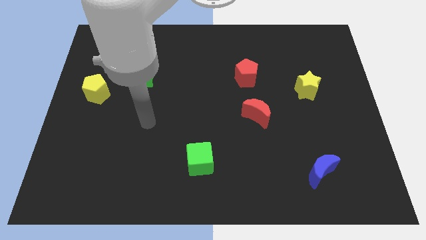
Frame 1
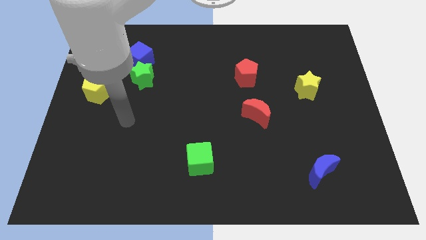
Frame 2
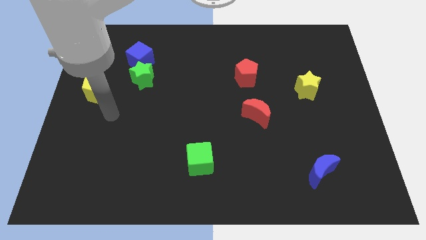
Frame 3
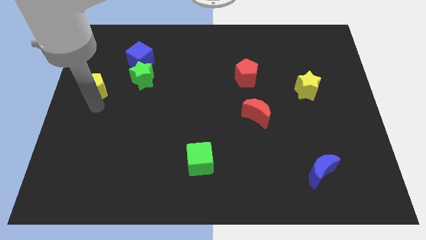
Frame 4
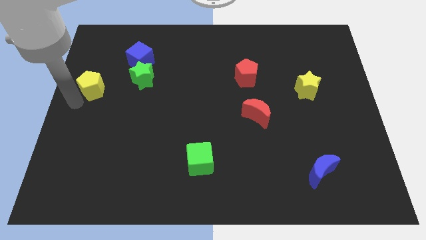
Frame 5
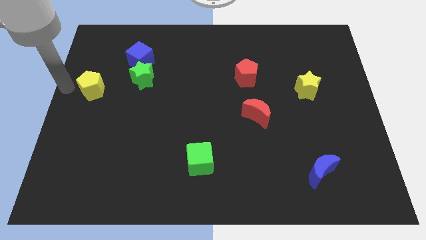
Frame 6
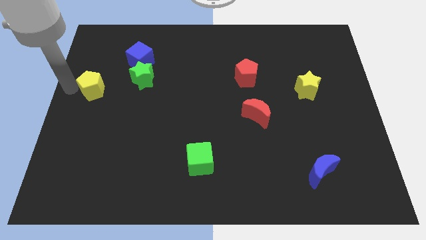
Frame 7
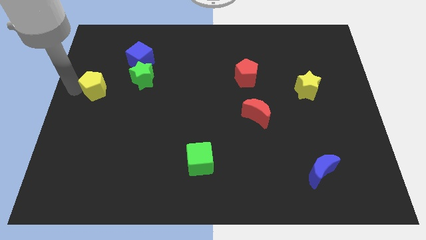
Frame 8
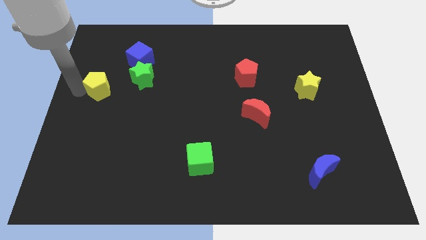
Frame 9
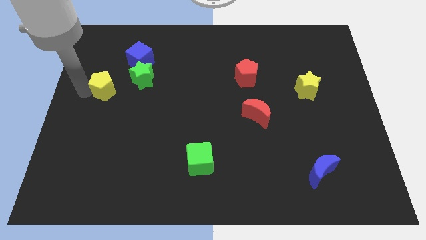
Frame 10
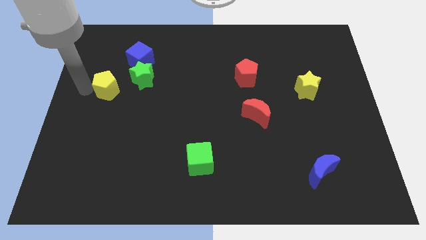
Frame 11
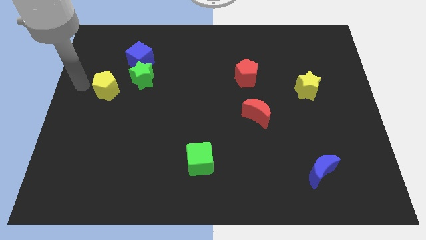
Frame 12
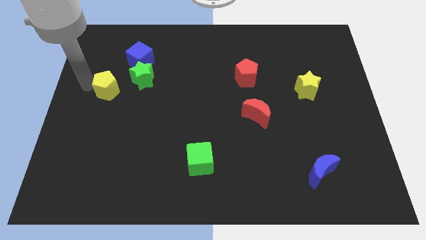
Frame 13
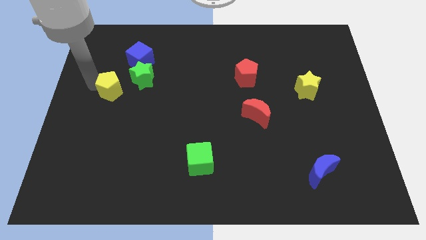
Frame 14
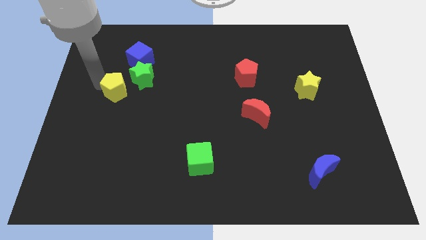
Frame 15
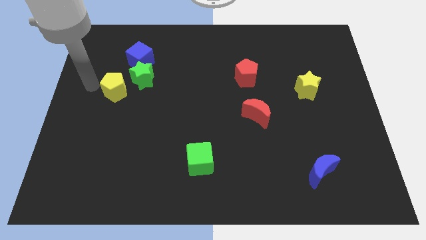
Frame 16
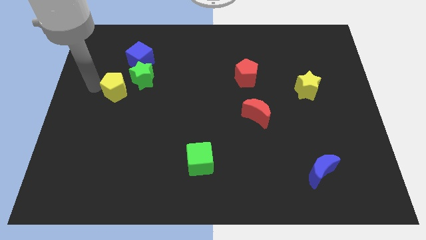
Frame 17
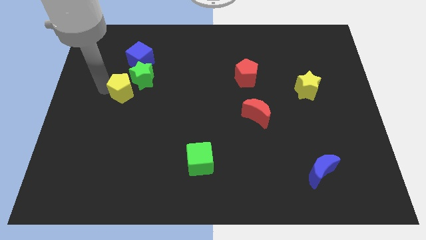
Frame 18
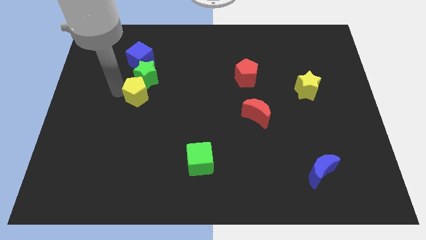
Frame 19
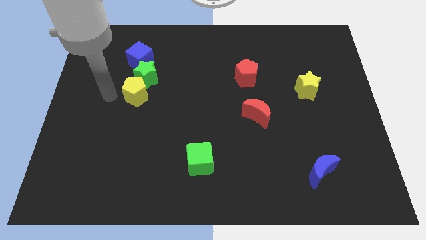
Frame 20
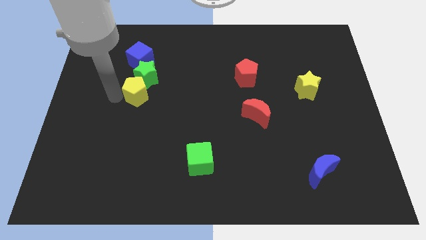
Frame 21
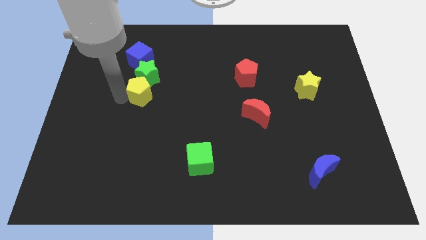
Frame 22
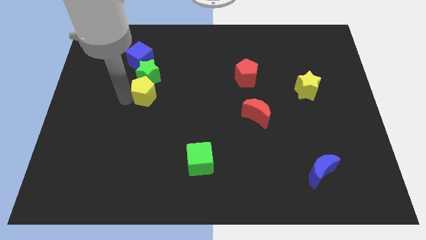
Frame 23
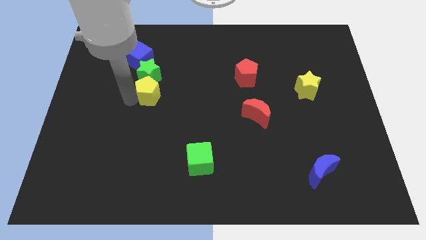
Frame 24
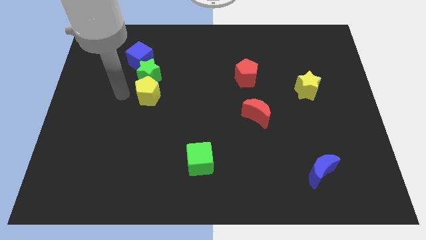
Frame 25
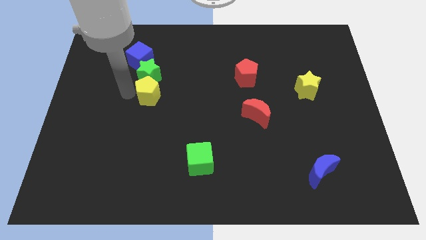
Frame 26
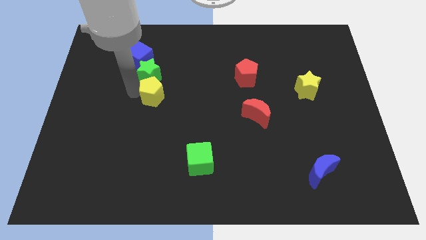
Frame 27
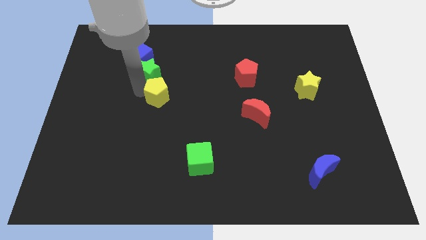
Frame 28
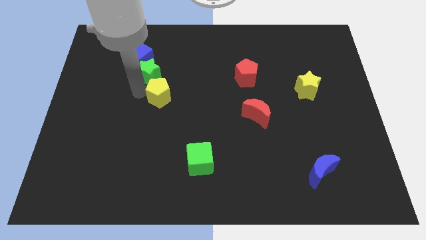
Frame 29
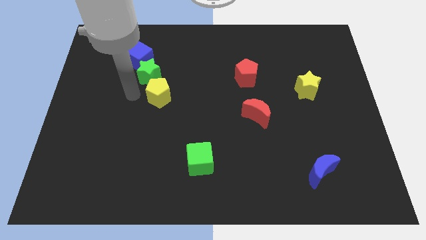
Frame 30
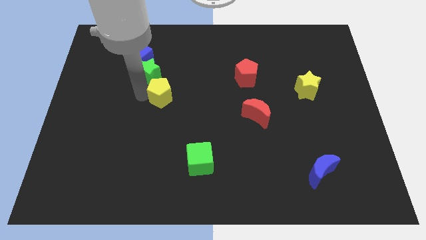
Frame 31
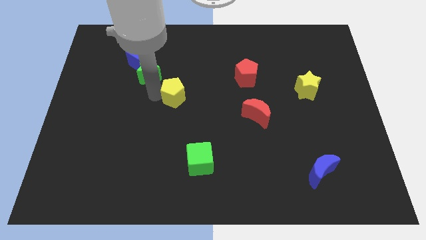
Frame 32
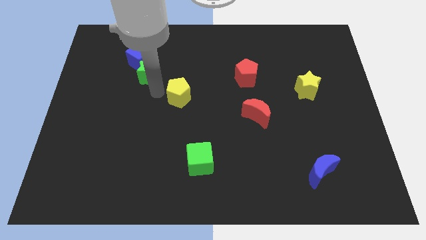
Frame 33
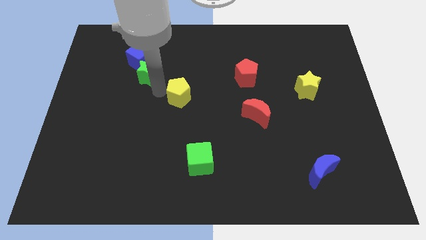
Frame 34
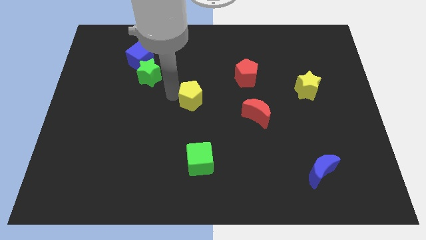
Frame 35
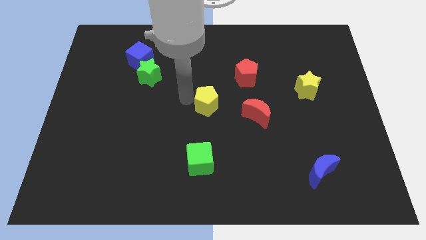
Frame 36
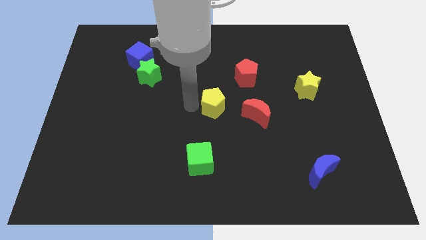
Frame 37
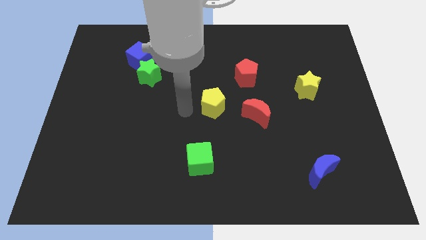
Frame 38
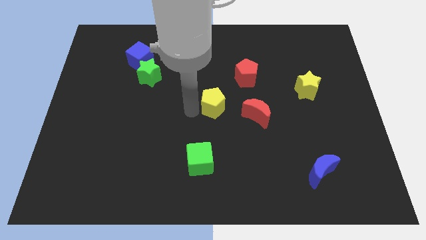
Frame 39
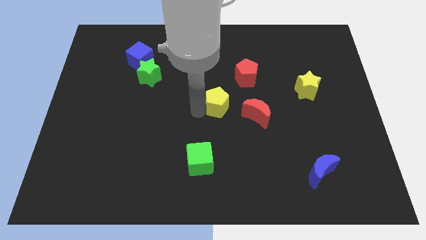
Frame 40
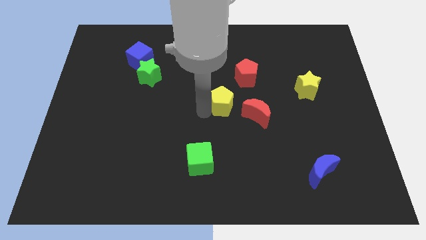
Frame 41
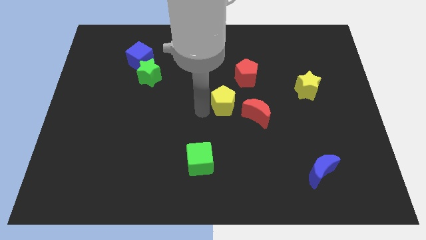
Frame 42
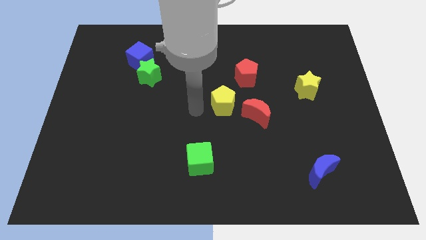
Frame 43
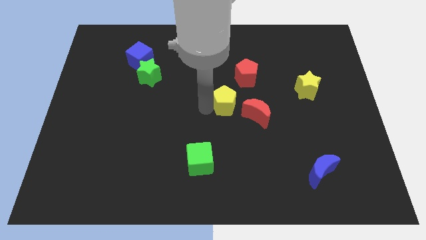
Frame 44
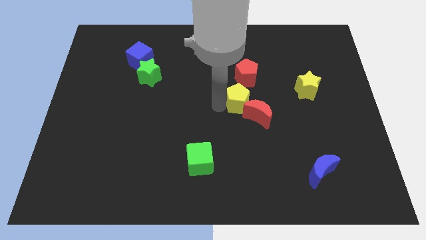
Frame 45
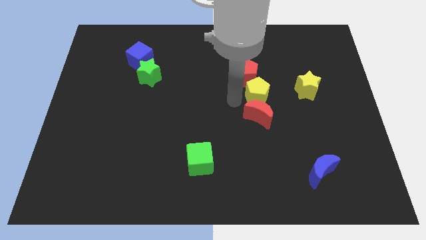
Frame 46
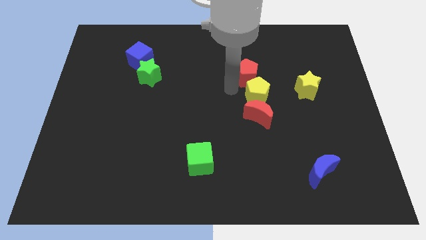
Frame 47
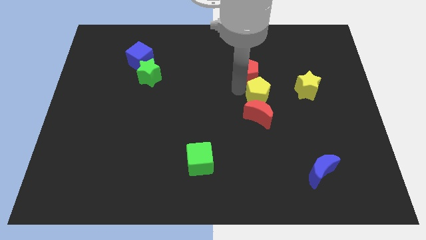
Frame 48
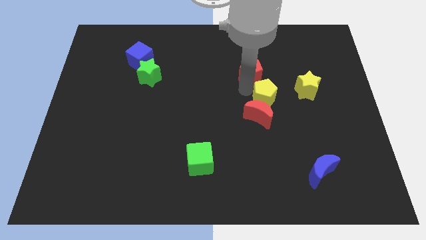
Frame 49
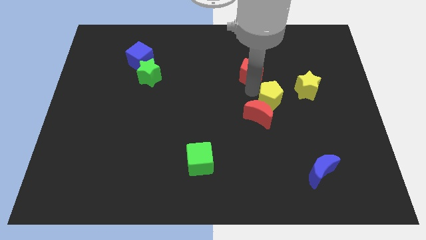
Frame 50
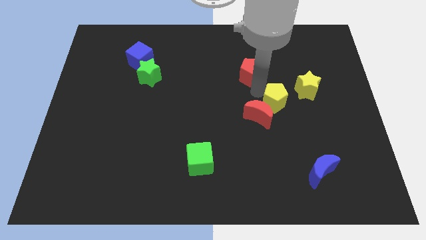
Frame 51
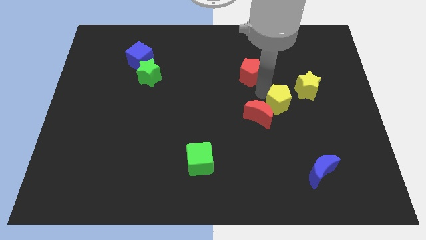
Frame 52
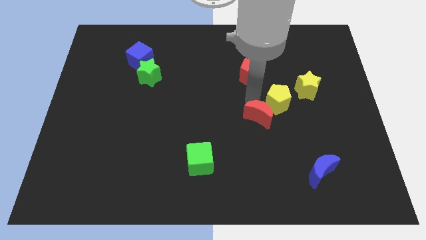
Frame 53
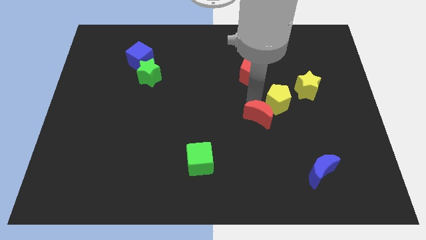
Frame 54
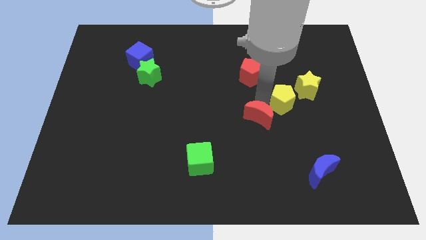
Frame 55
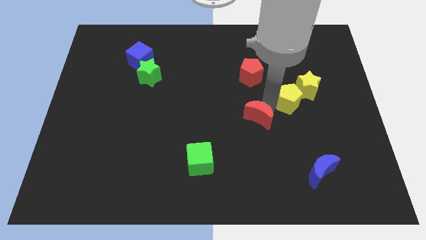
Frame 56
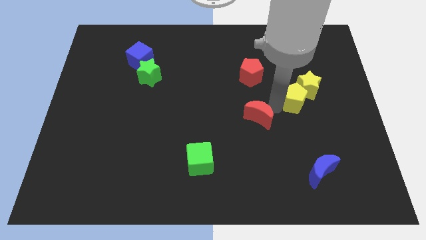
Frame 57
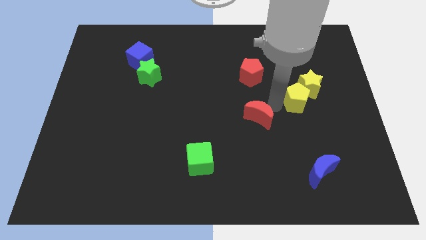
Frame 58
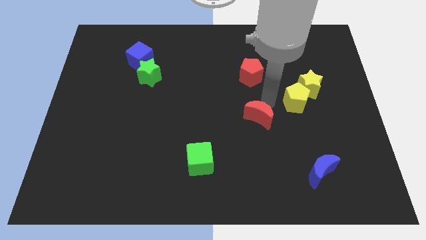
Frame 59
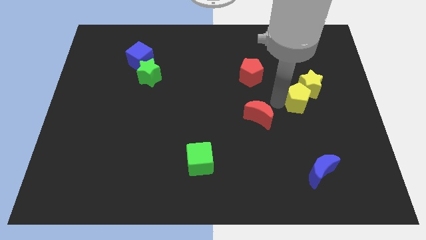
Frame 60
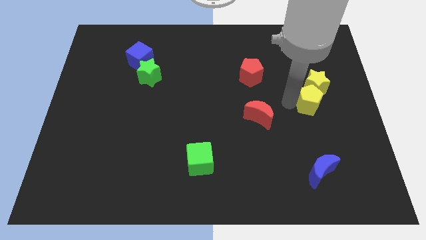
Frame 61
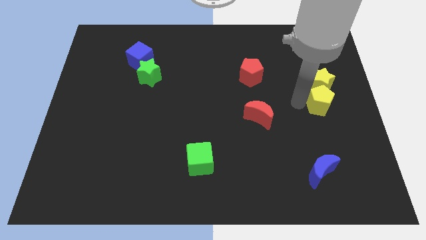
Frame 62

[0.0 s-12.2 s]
put the yellow pentagon to the right side of the board

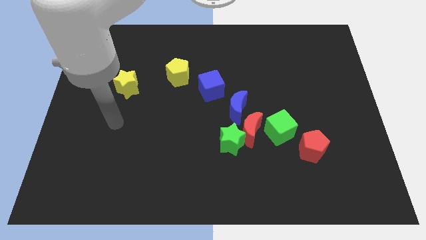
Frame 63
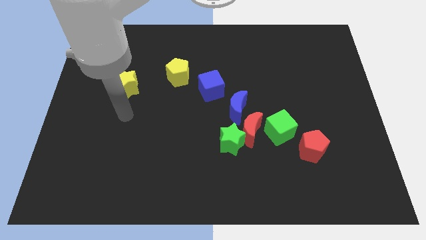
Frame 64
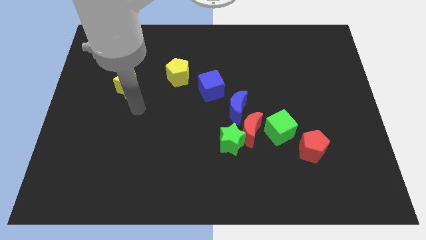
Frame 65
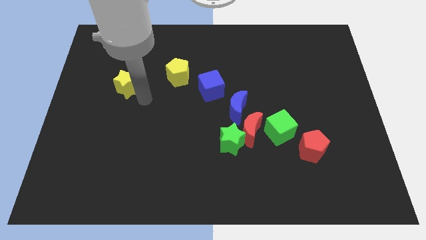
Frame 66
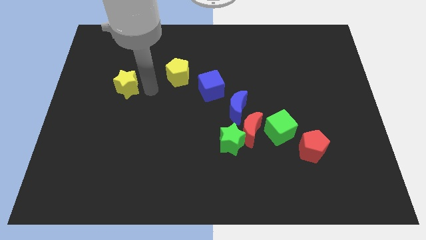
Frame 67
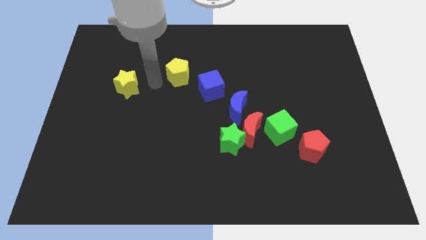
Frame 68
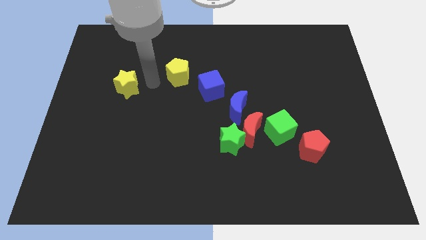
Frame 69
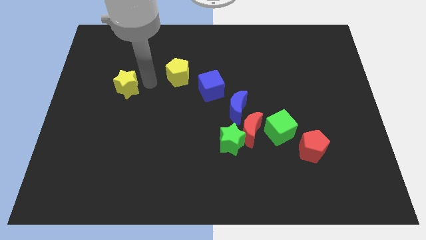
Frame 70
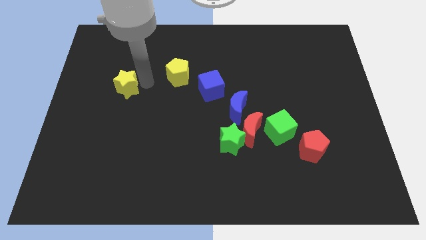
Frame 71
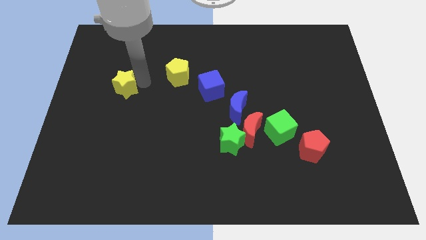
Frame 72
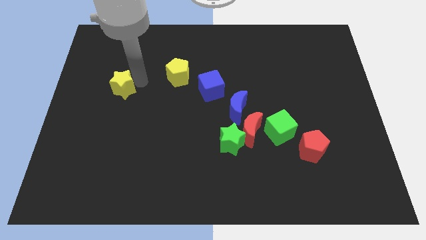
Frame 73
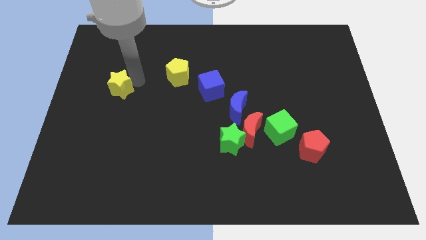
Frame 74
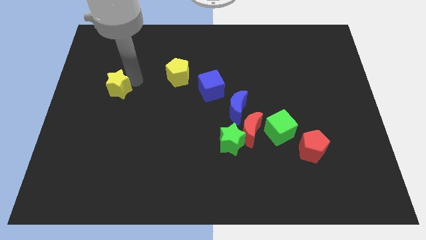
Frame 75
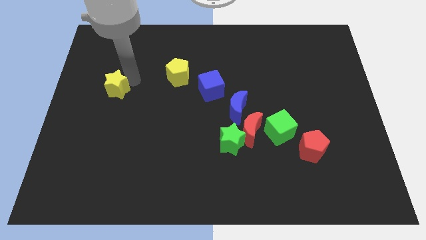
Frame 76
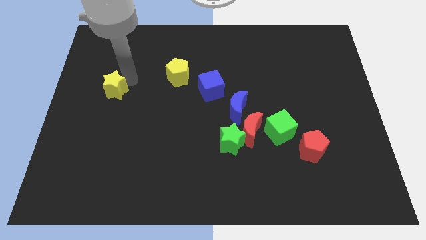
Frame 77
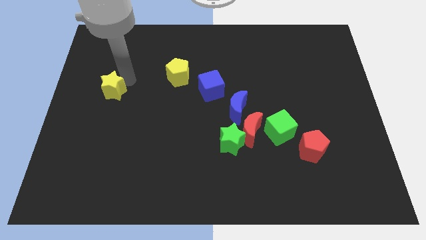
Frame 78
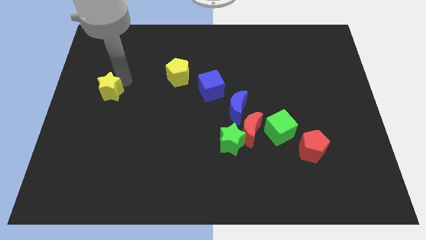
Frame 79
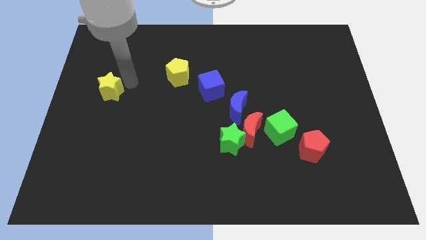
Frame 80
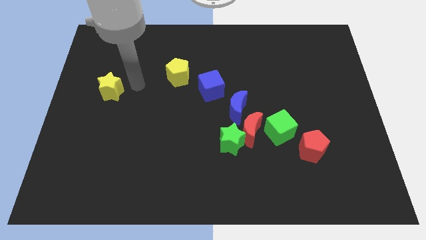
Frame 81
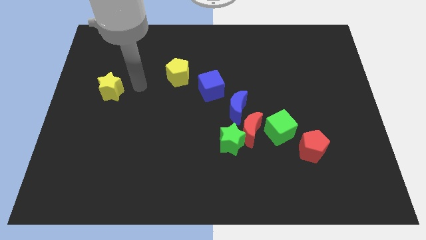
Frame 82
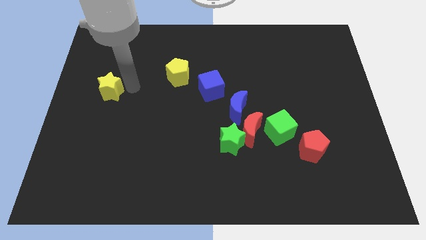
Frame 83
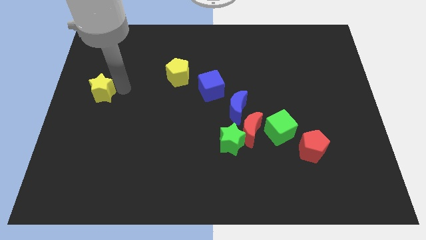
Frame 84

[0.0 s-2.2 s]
put the yellow star to the left side of the board
